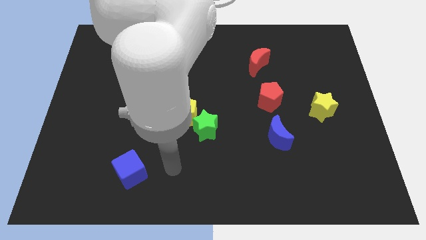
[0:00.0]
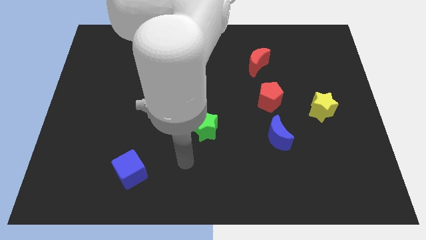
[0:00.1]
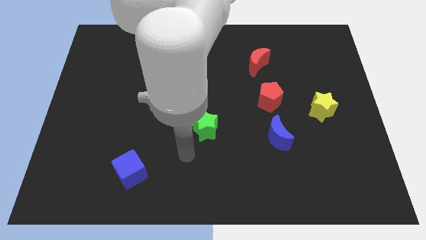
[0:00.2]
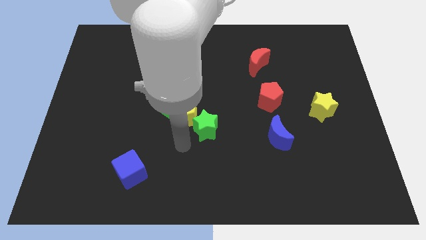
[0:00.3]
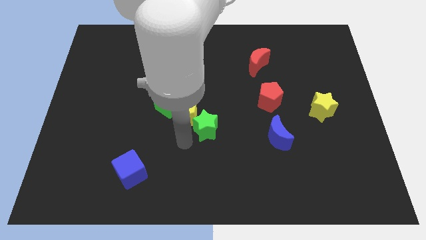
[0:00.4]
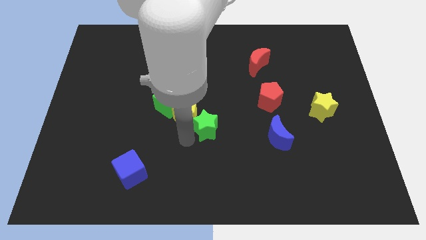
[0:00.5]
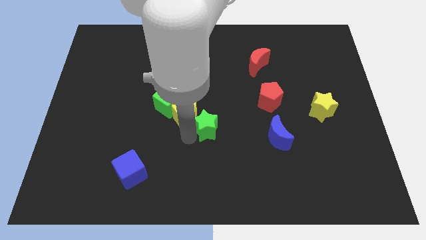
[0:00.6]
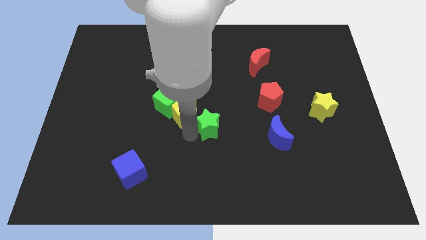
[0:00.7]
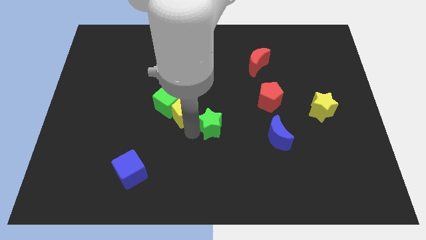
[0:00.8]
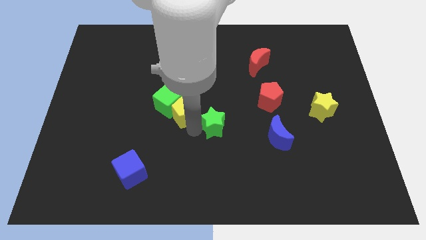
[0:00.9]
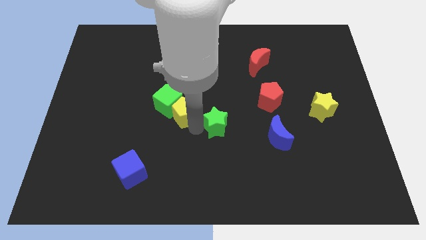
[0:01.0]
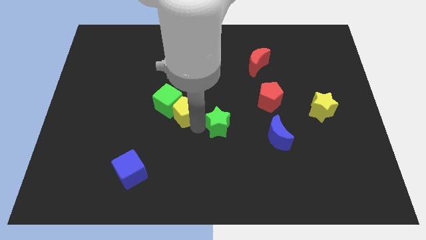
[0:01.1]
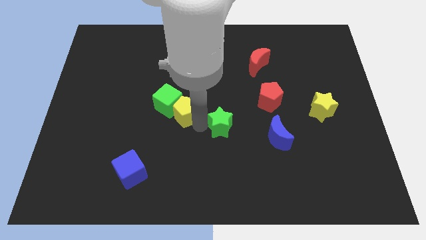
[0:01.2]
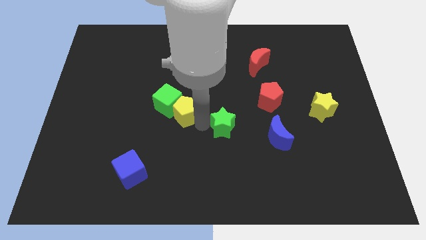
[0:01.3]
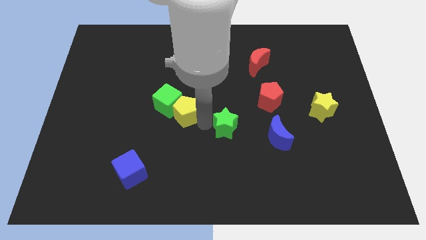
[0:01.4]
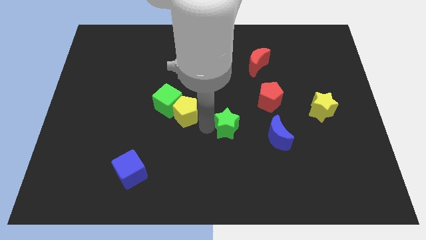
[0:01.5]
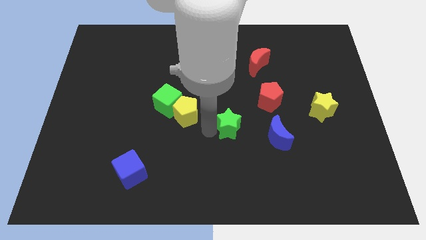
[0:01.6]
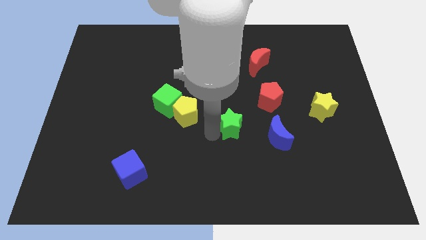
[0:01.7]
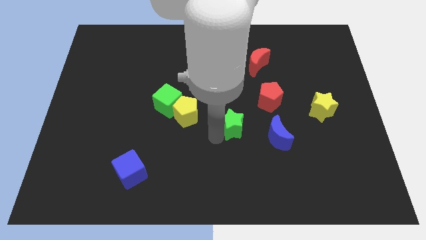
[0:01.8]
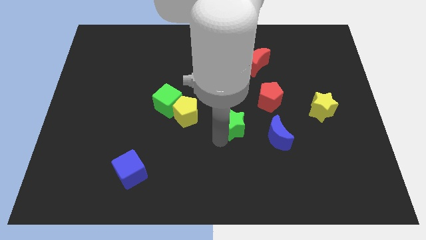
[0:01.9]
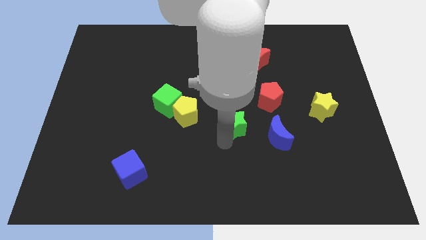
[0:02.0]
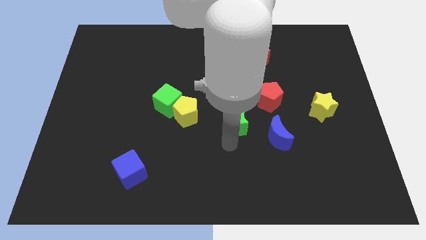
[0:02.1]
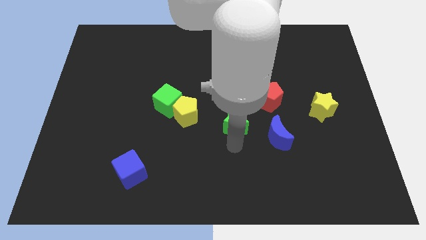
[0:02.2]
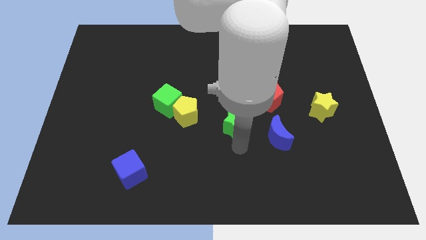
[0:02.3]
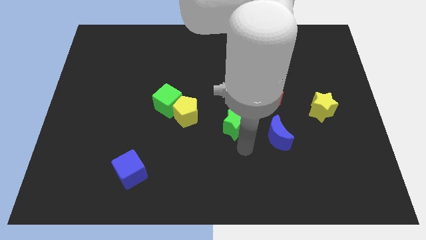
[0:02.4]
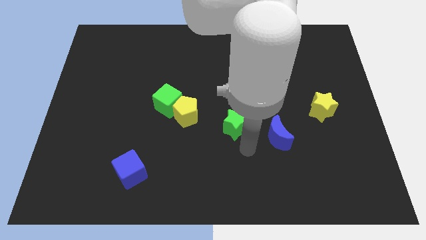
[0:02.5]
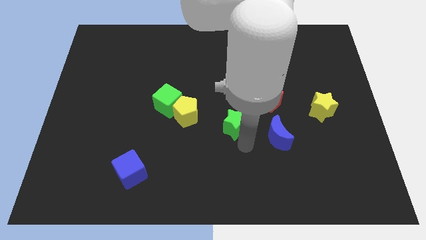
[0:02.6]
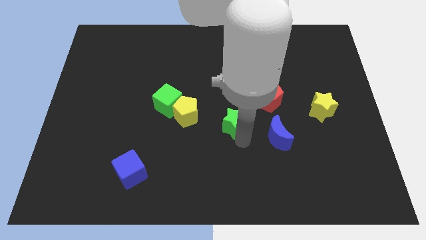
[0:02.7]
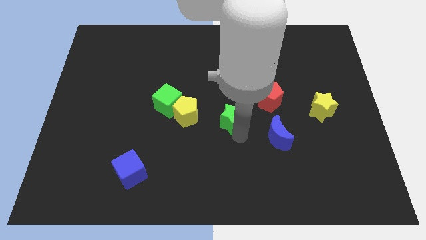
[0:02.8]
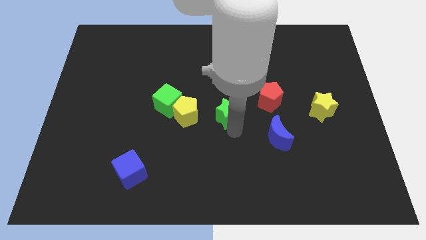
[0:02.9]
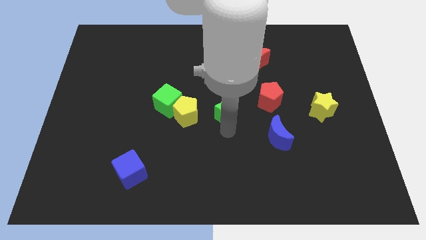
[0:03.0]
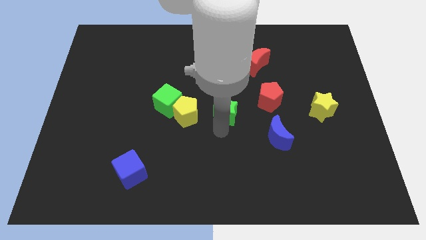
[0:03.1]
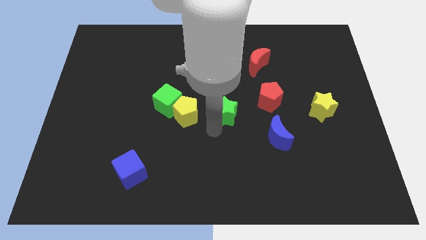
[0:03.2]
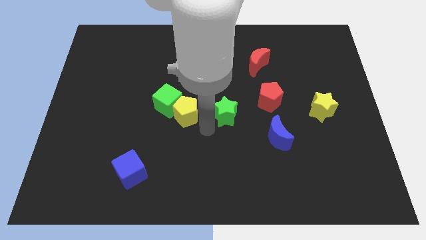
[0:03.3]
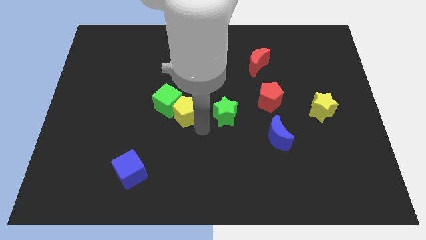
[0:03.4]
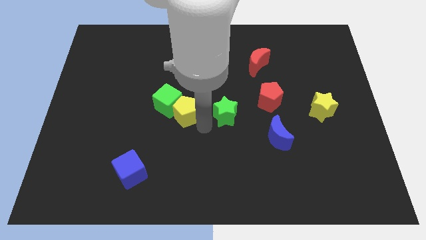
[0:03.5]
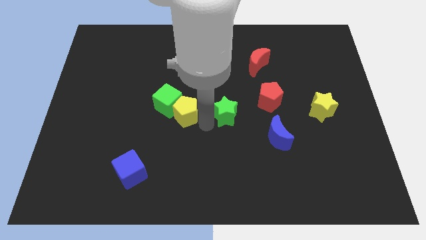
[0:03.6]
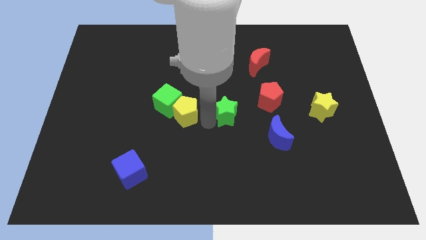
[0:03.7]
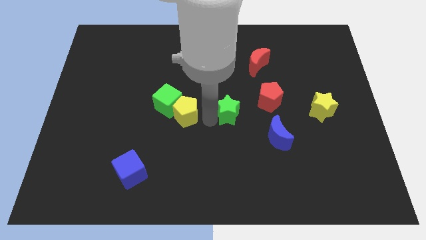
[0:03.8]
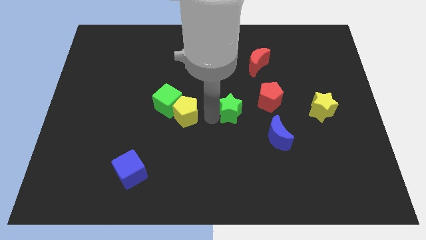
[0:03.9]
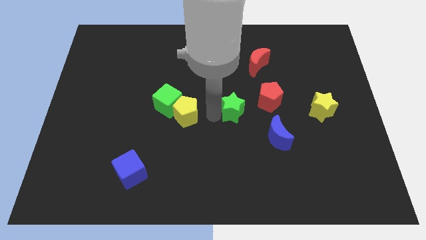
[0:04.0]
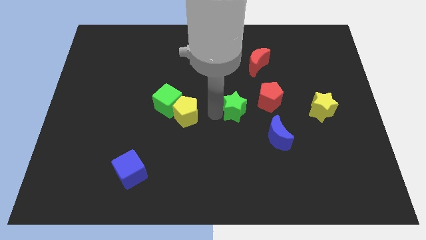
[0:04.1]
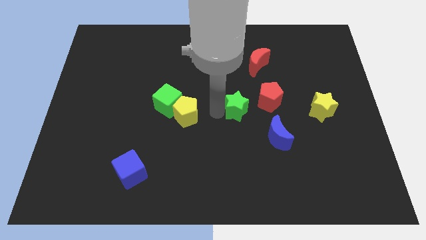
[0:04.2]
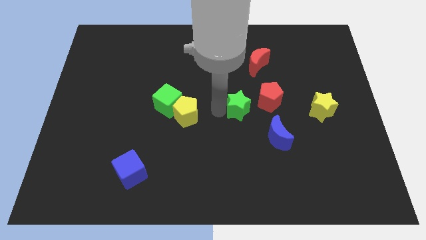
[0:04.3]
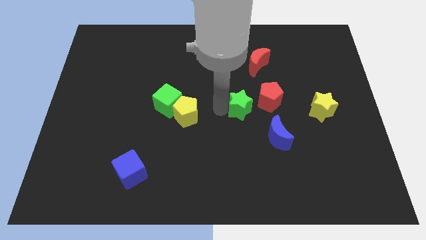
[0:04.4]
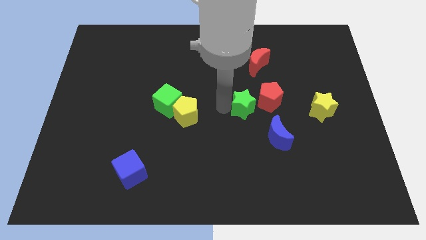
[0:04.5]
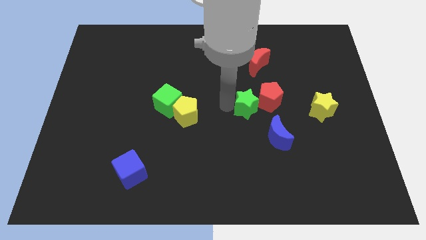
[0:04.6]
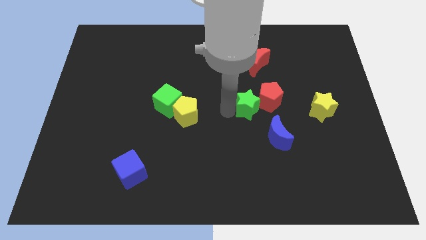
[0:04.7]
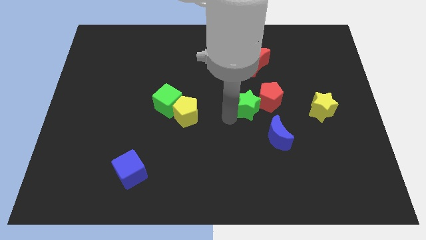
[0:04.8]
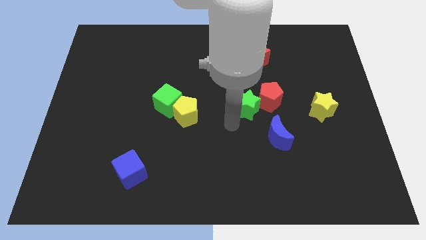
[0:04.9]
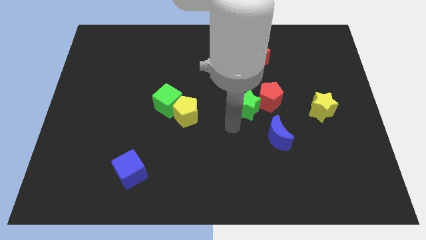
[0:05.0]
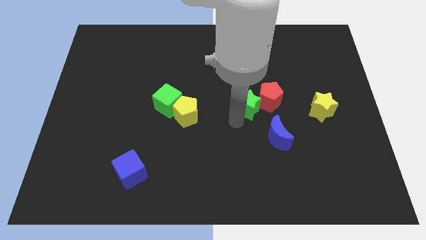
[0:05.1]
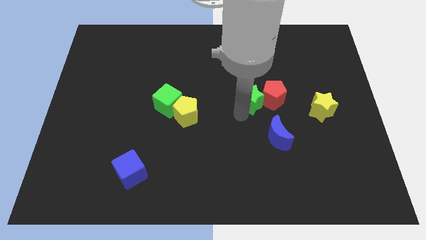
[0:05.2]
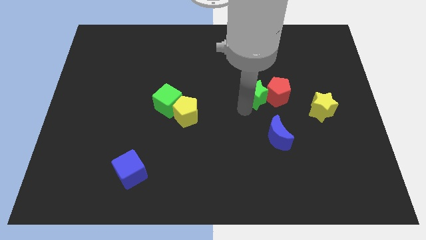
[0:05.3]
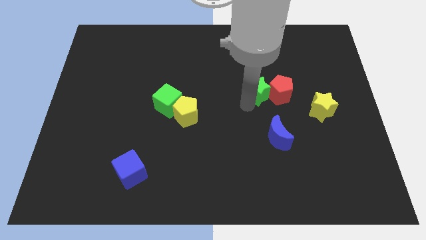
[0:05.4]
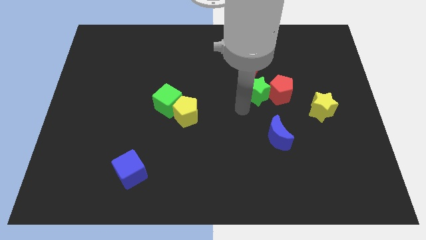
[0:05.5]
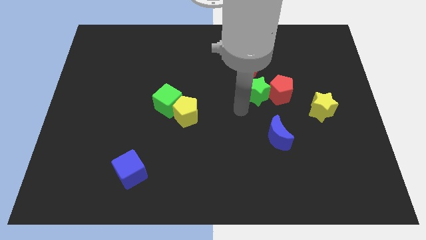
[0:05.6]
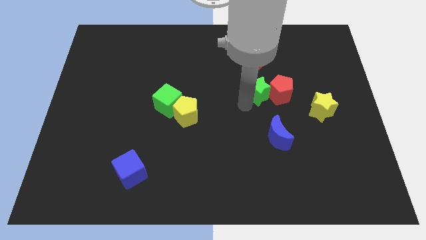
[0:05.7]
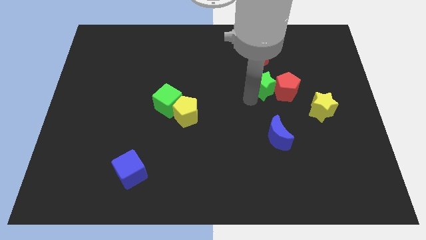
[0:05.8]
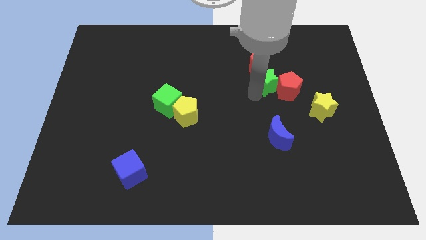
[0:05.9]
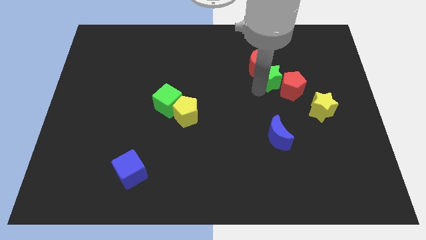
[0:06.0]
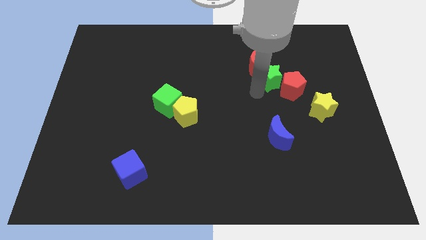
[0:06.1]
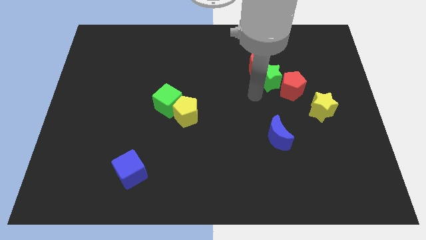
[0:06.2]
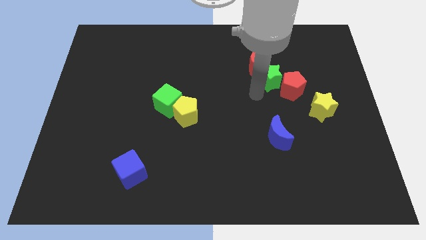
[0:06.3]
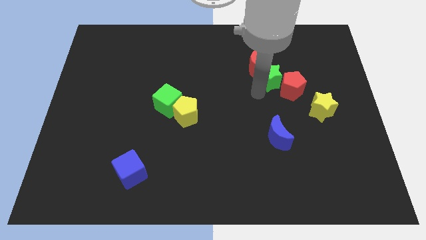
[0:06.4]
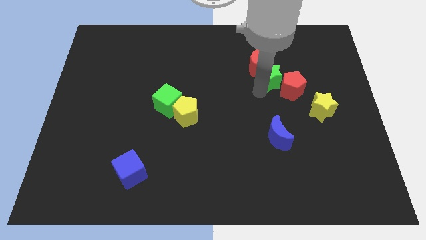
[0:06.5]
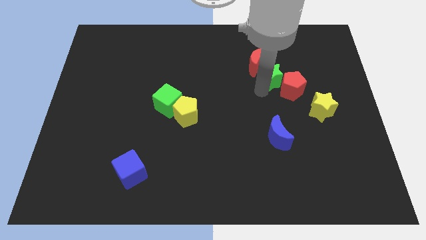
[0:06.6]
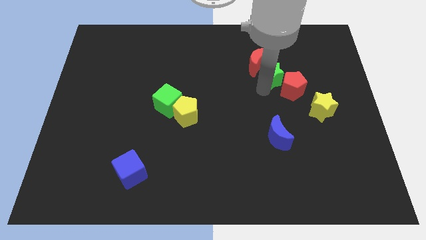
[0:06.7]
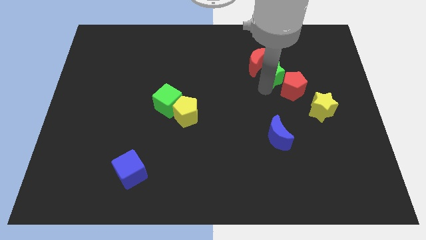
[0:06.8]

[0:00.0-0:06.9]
move the green star to the right of the red moon

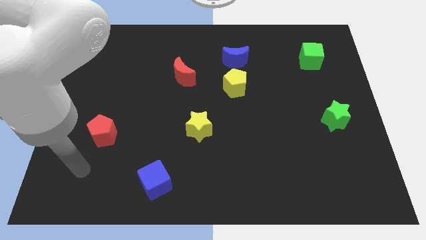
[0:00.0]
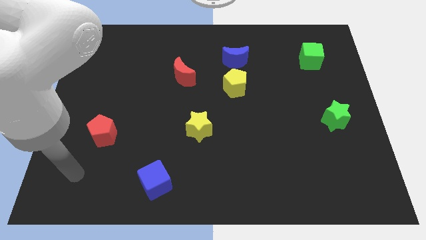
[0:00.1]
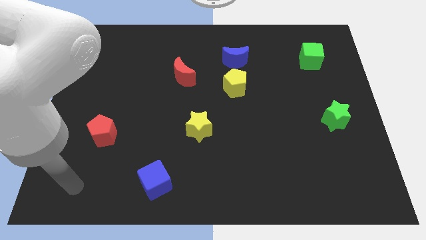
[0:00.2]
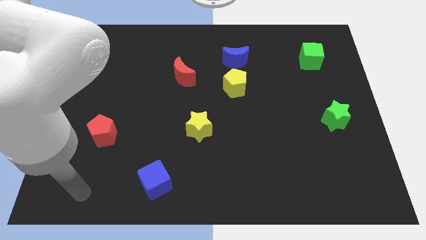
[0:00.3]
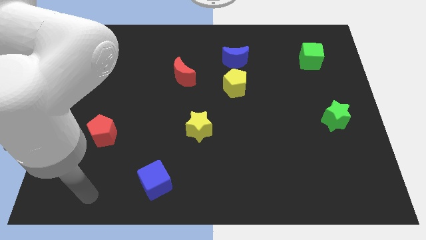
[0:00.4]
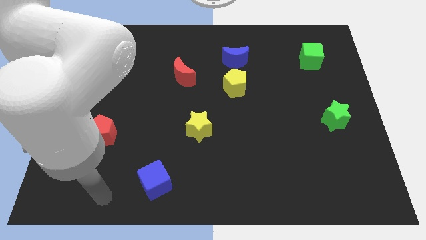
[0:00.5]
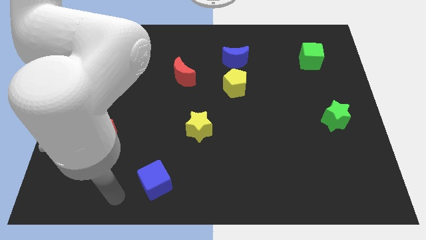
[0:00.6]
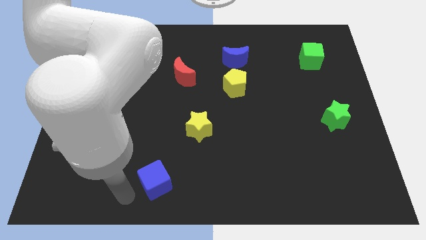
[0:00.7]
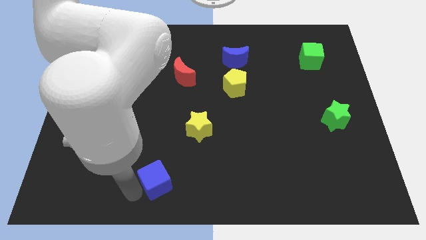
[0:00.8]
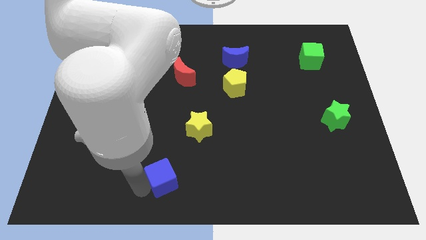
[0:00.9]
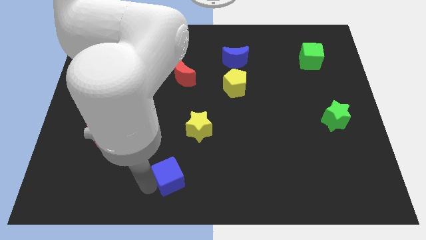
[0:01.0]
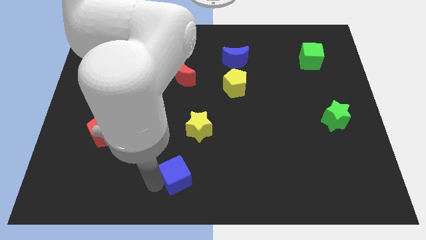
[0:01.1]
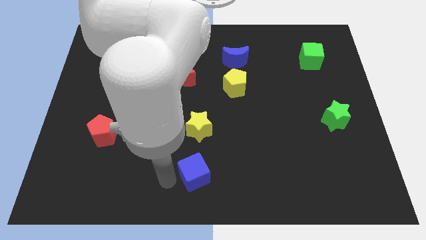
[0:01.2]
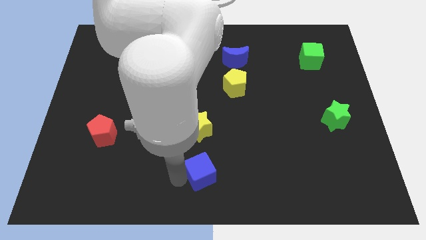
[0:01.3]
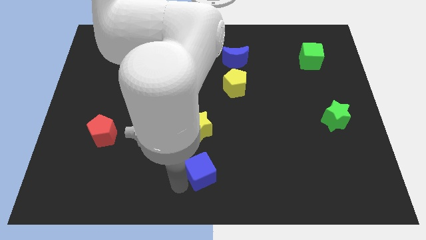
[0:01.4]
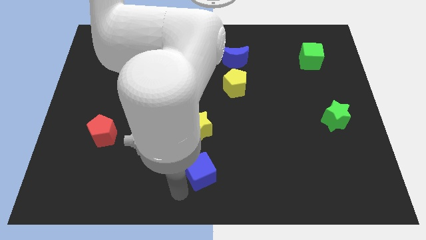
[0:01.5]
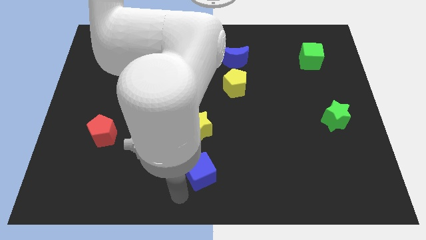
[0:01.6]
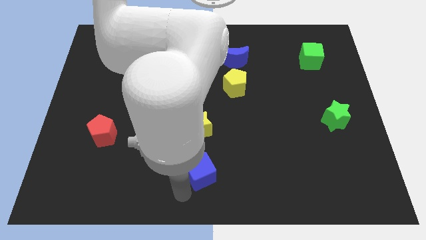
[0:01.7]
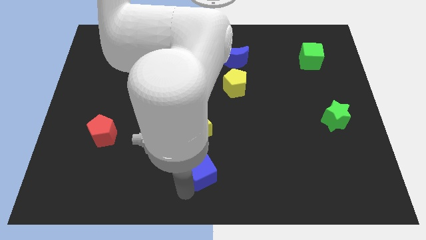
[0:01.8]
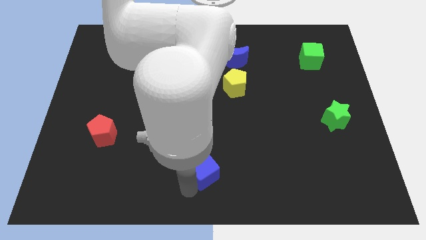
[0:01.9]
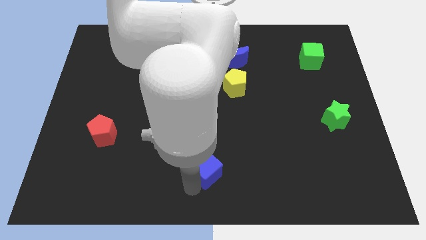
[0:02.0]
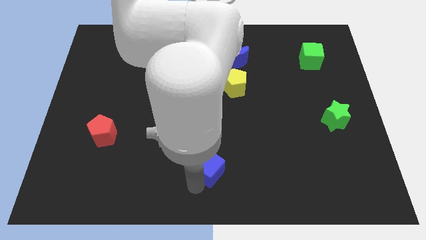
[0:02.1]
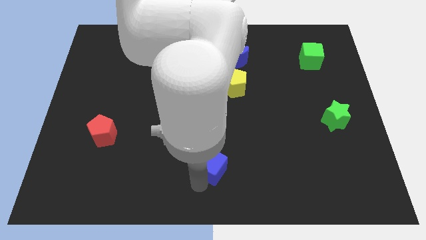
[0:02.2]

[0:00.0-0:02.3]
push the blue cube diagonally down and to the right of the yellow star
